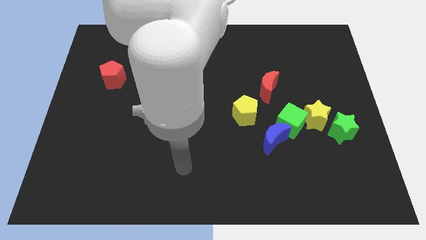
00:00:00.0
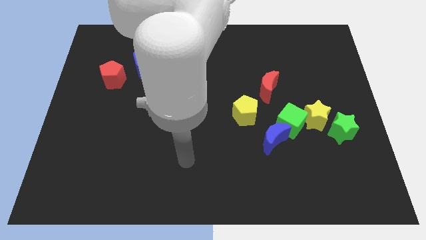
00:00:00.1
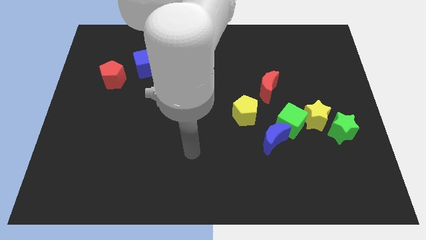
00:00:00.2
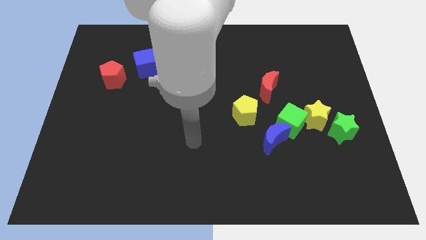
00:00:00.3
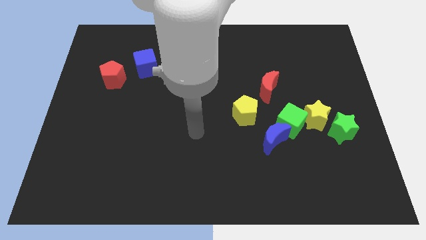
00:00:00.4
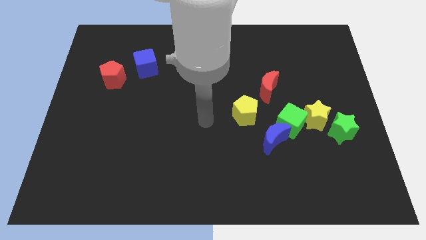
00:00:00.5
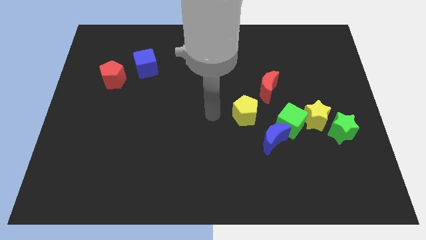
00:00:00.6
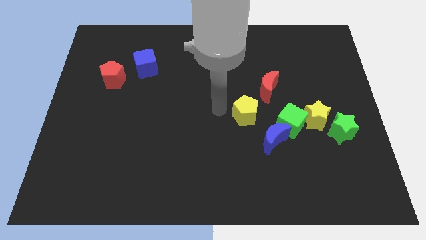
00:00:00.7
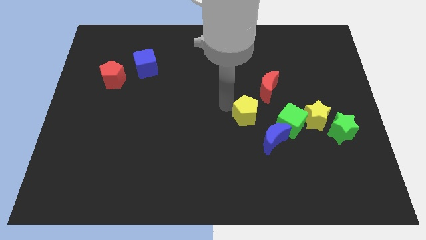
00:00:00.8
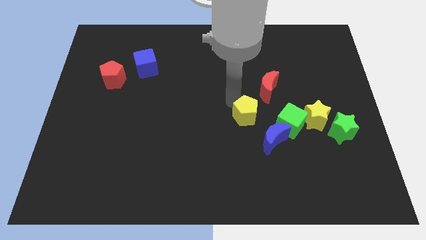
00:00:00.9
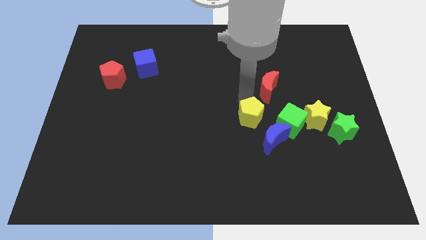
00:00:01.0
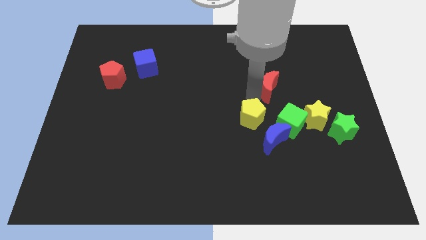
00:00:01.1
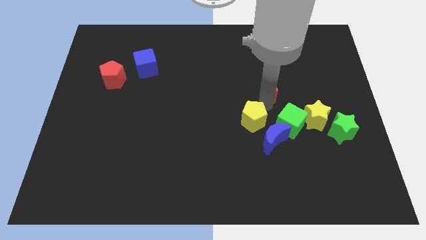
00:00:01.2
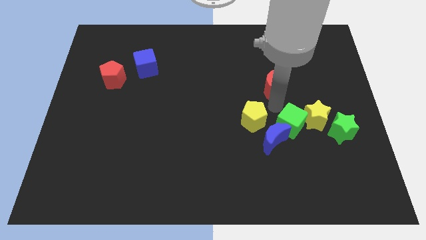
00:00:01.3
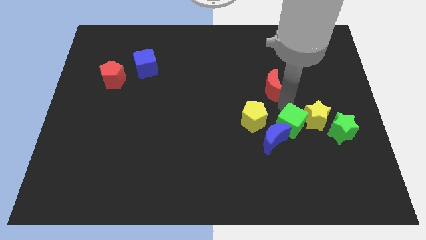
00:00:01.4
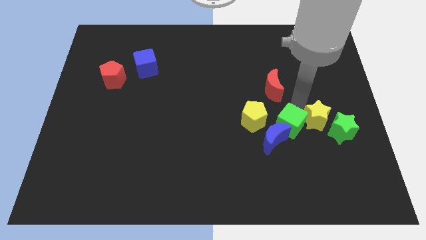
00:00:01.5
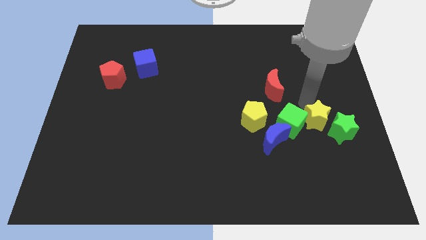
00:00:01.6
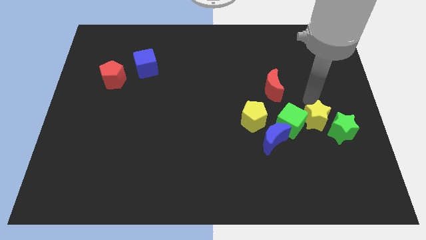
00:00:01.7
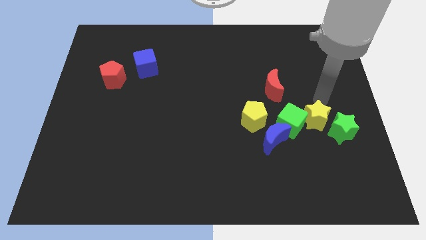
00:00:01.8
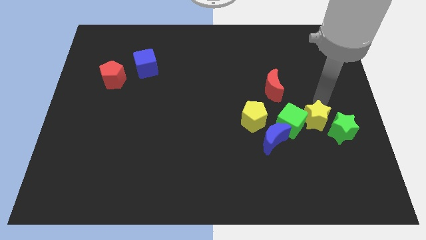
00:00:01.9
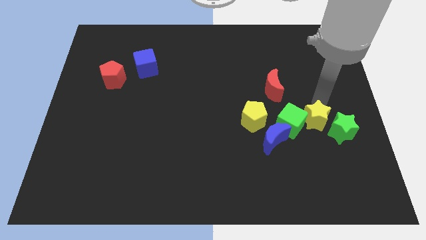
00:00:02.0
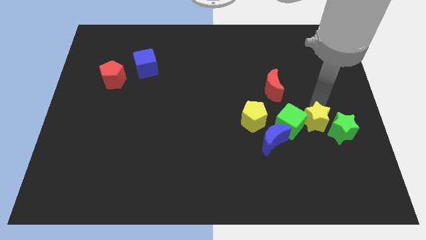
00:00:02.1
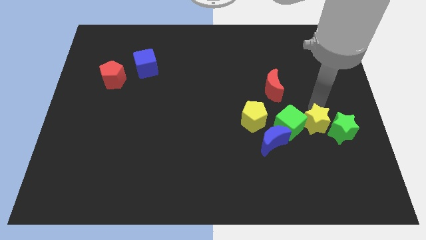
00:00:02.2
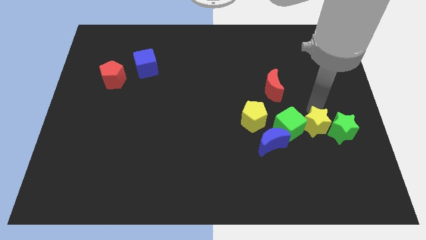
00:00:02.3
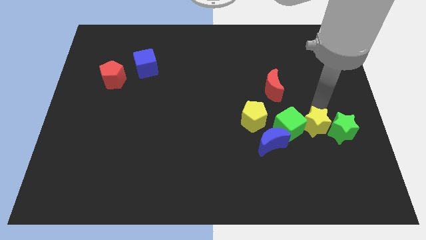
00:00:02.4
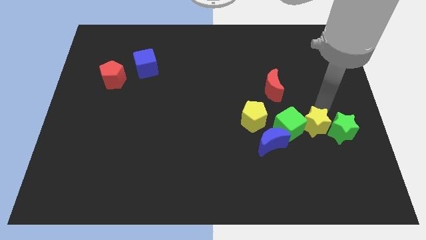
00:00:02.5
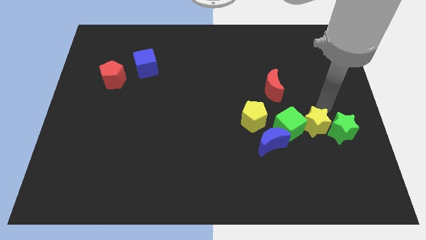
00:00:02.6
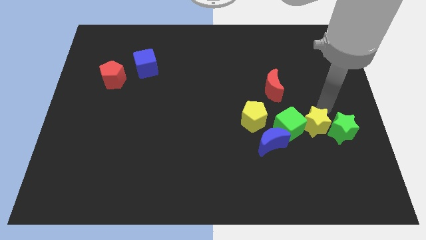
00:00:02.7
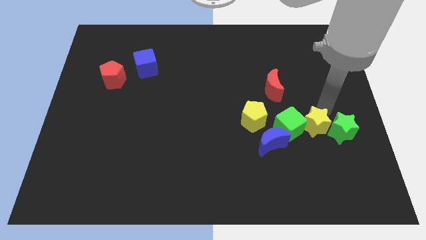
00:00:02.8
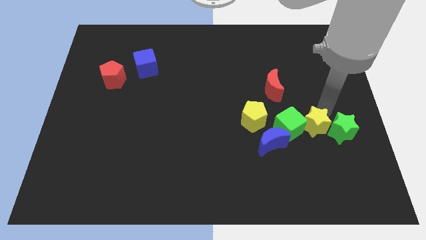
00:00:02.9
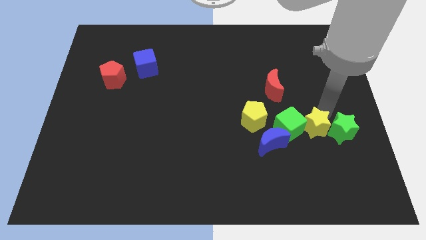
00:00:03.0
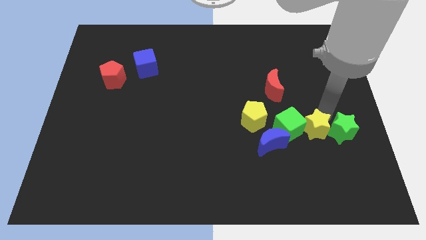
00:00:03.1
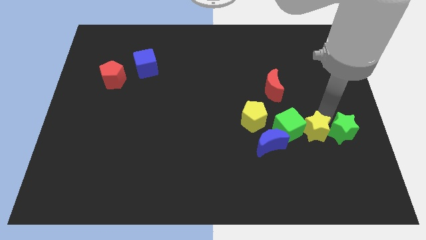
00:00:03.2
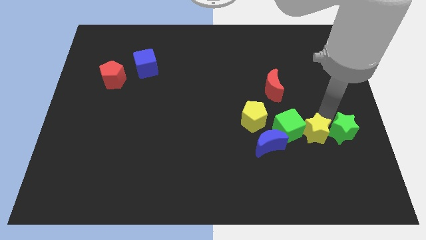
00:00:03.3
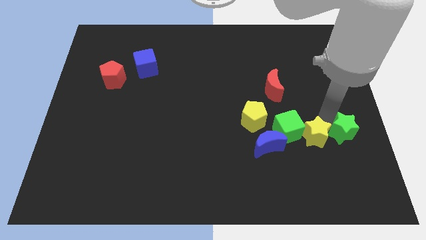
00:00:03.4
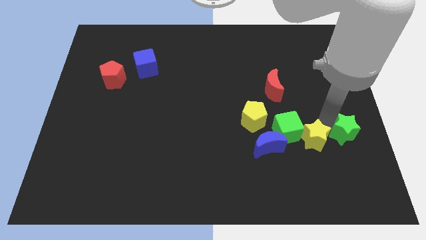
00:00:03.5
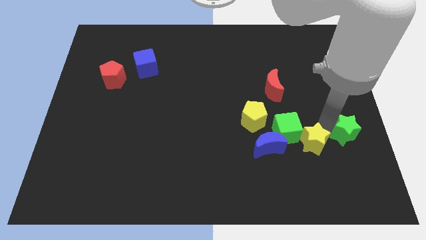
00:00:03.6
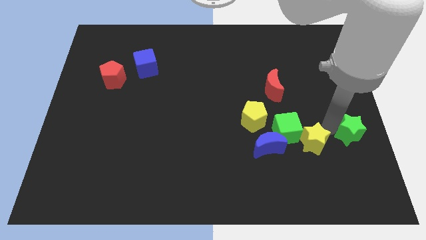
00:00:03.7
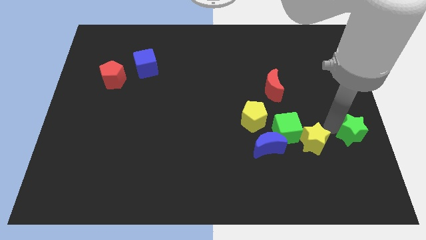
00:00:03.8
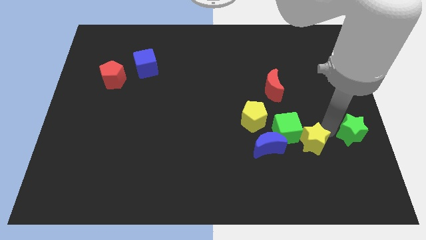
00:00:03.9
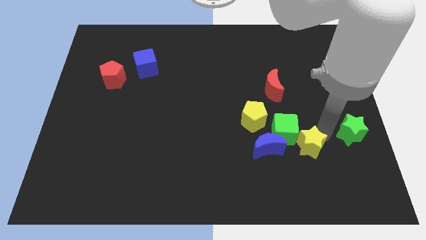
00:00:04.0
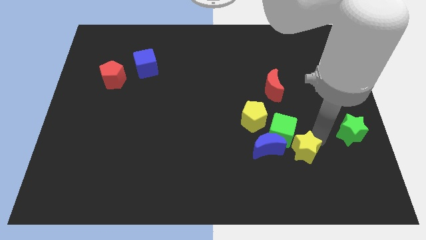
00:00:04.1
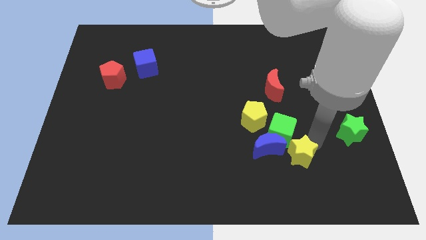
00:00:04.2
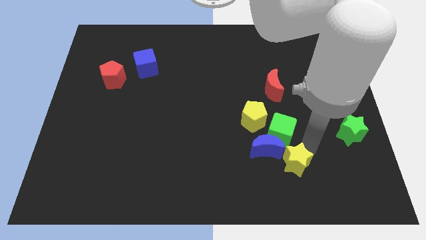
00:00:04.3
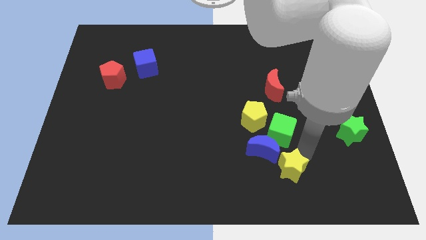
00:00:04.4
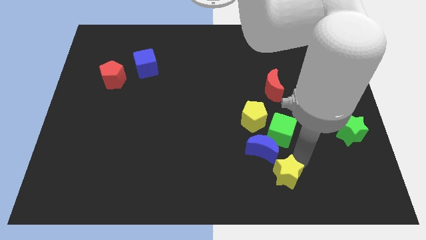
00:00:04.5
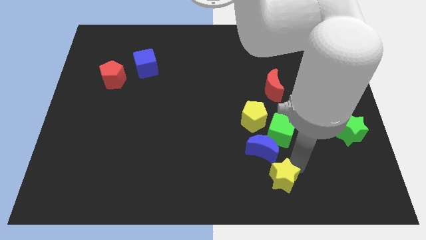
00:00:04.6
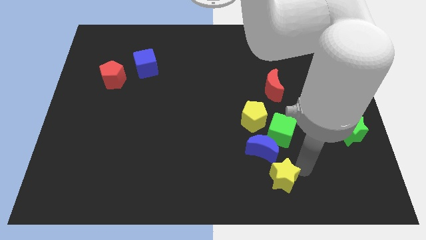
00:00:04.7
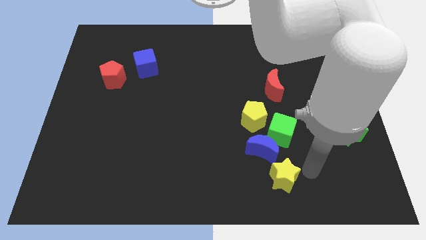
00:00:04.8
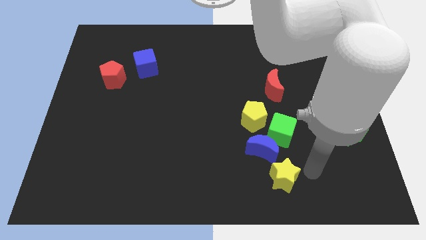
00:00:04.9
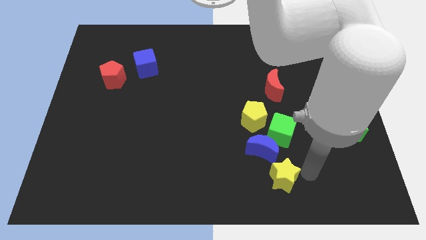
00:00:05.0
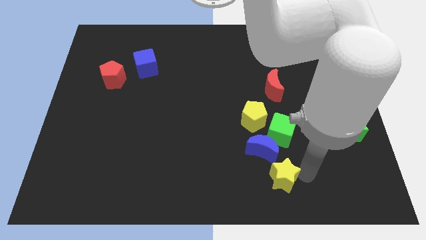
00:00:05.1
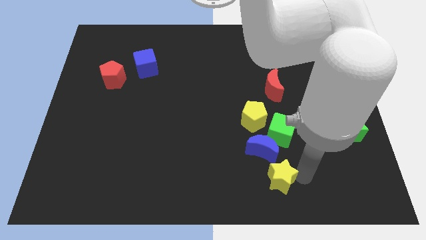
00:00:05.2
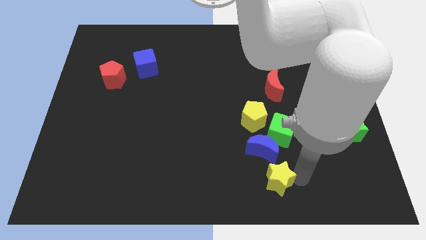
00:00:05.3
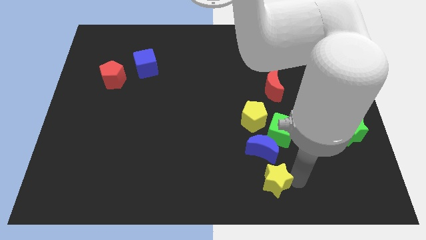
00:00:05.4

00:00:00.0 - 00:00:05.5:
put the yellow star to the bottom

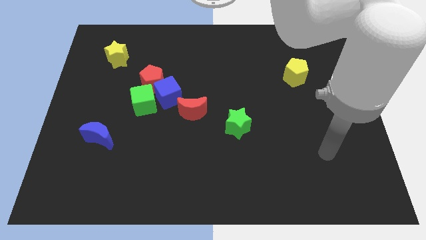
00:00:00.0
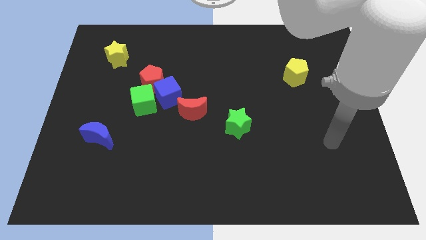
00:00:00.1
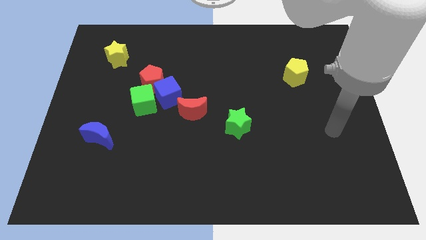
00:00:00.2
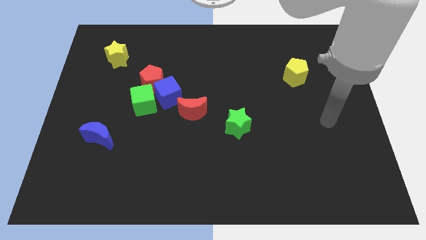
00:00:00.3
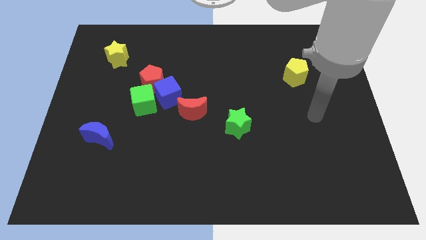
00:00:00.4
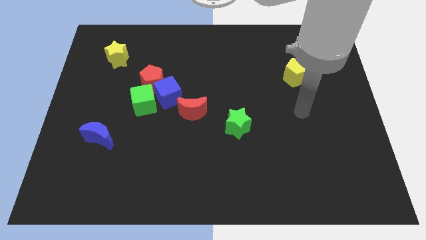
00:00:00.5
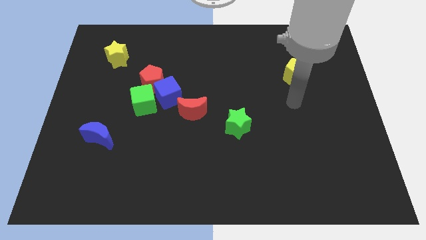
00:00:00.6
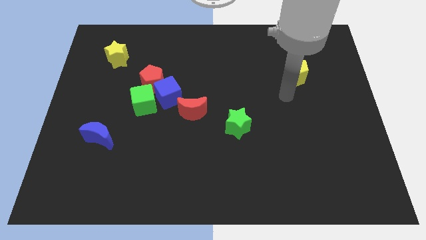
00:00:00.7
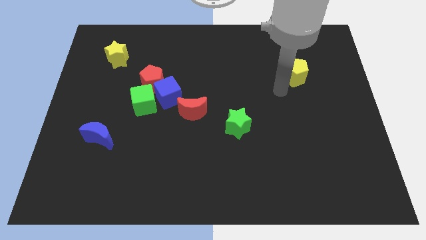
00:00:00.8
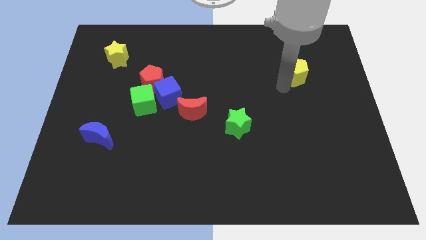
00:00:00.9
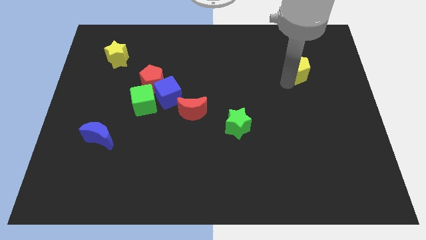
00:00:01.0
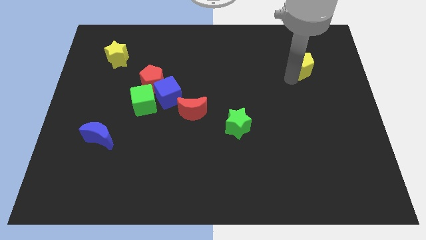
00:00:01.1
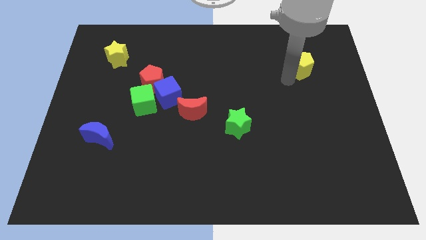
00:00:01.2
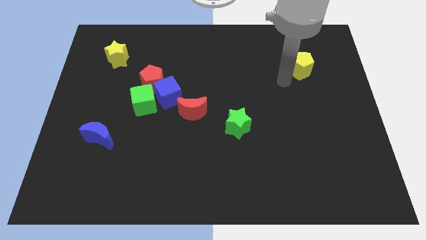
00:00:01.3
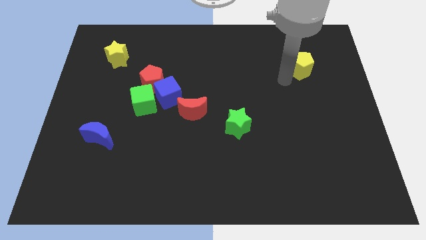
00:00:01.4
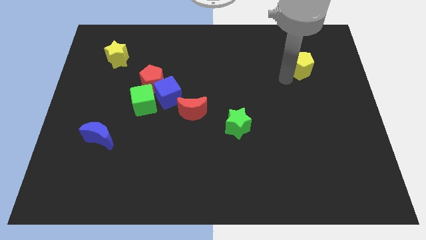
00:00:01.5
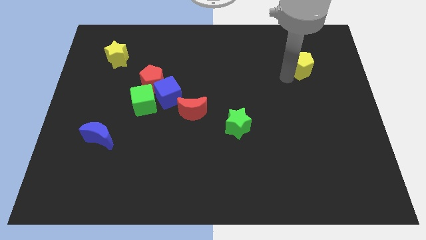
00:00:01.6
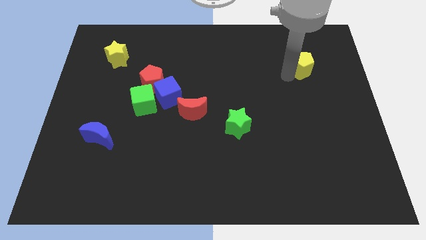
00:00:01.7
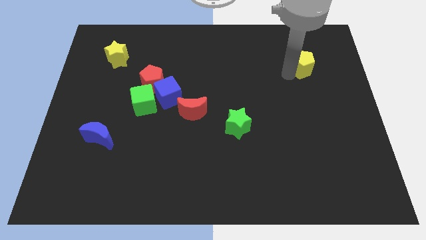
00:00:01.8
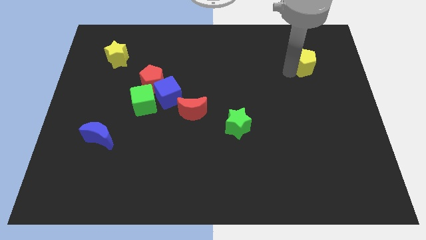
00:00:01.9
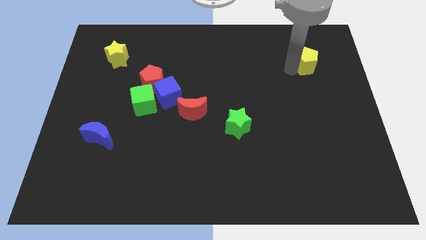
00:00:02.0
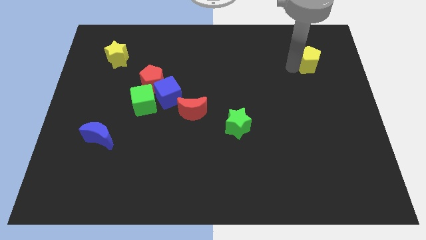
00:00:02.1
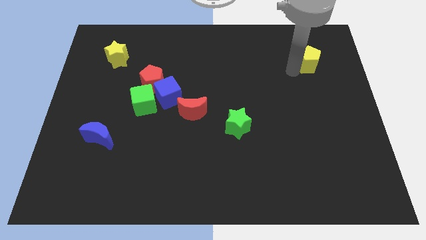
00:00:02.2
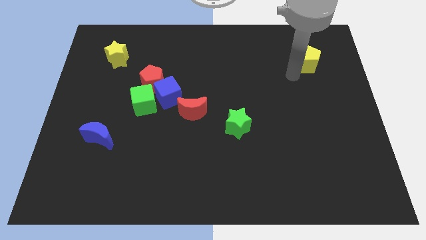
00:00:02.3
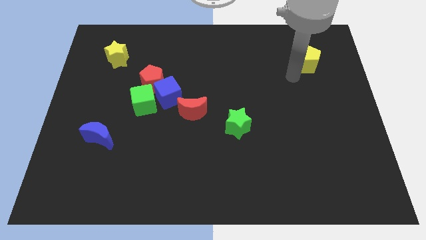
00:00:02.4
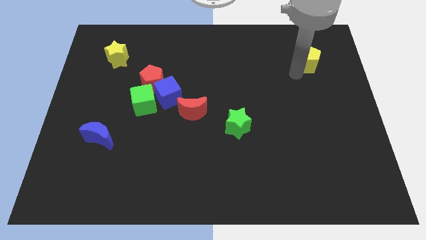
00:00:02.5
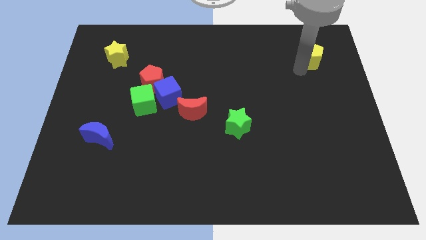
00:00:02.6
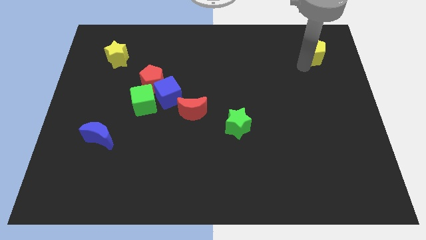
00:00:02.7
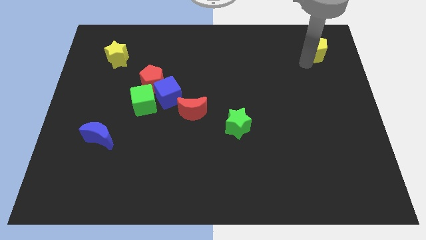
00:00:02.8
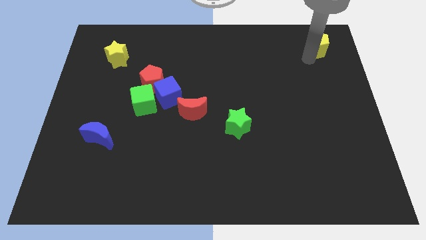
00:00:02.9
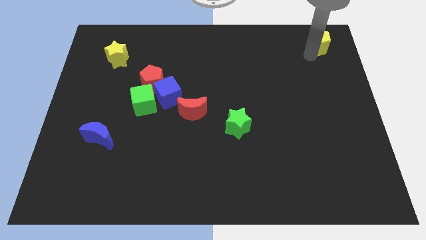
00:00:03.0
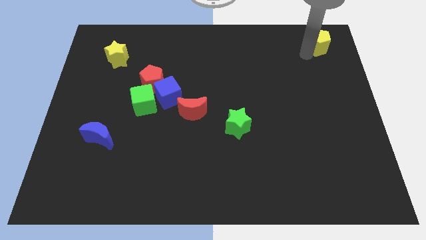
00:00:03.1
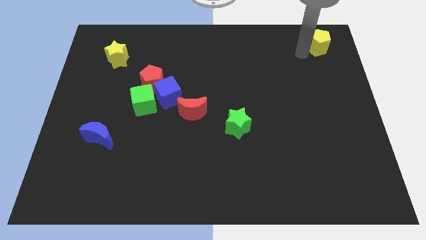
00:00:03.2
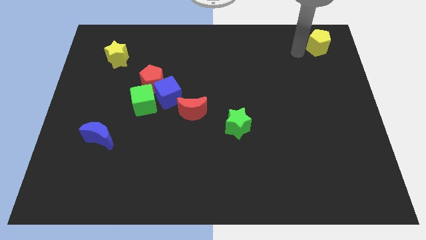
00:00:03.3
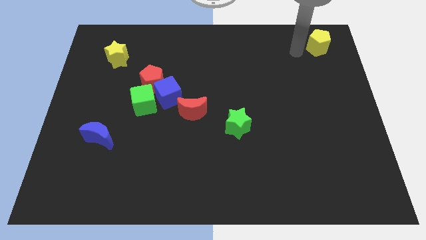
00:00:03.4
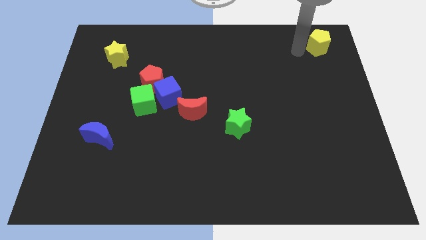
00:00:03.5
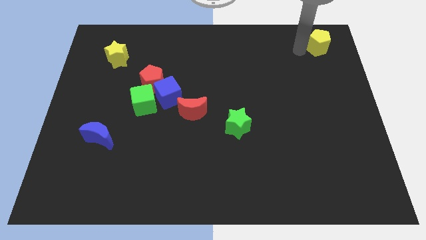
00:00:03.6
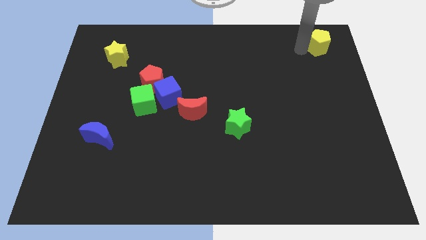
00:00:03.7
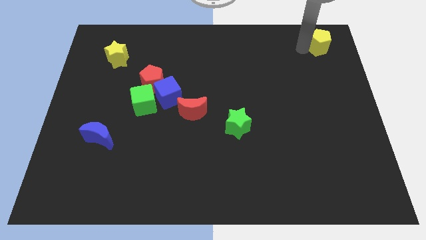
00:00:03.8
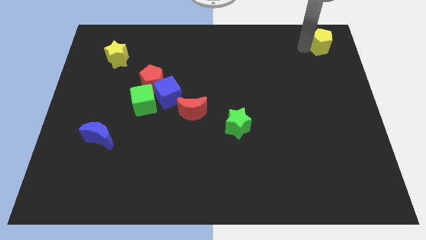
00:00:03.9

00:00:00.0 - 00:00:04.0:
put the yellow pentagon to the top right of the board
